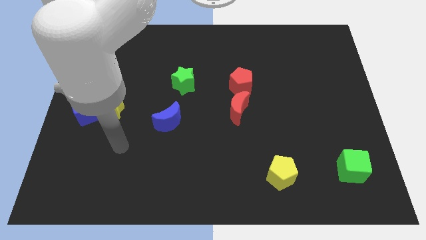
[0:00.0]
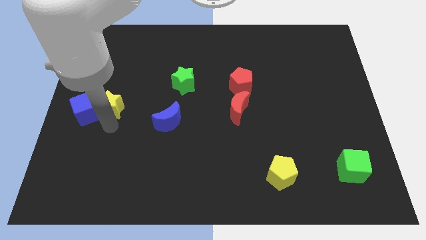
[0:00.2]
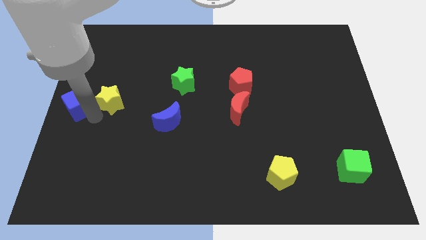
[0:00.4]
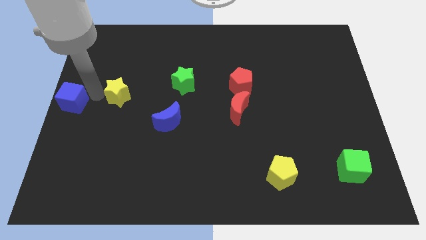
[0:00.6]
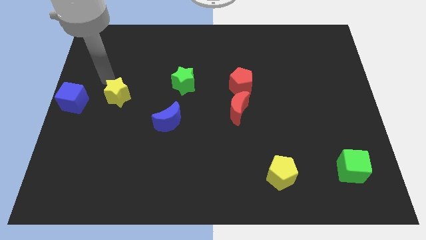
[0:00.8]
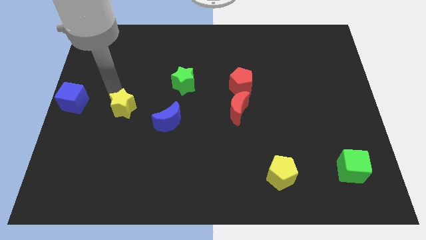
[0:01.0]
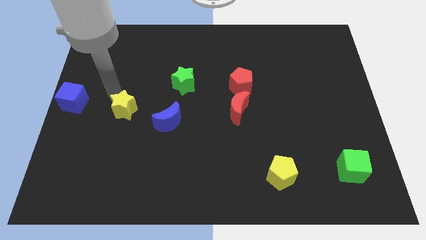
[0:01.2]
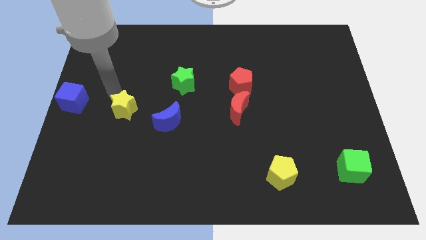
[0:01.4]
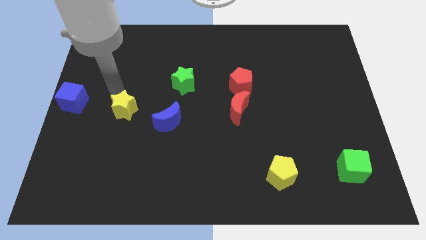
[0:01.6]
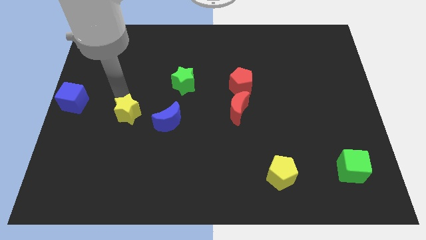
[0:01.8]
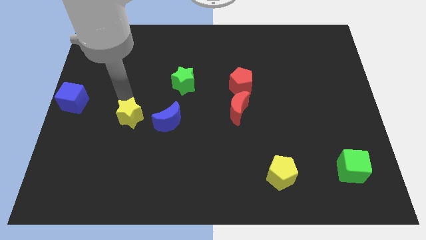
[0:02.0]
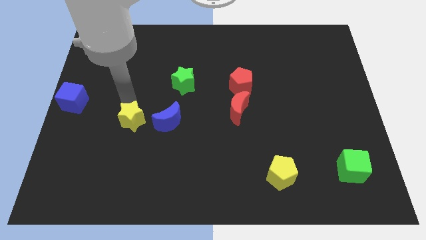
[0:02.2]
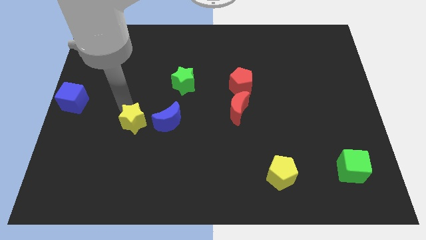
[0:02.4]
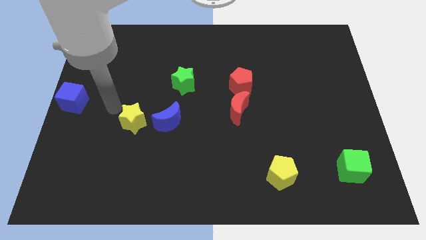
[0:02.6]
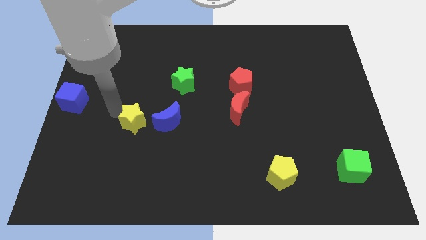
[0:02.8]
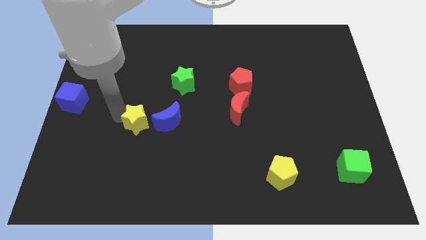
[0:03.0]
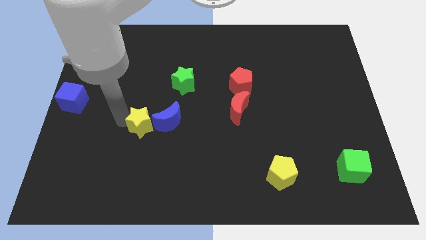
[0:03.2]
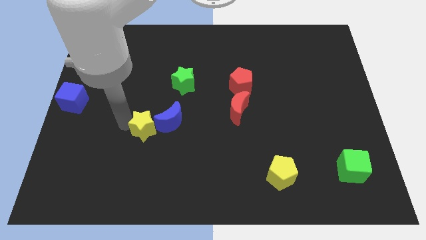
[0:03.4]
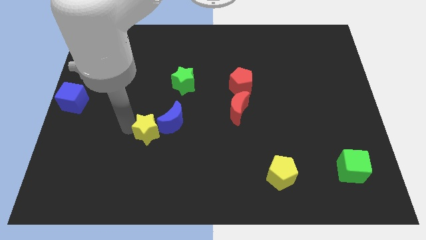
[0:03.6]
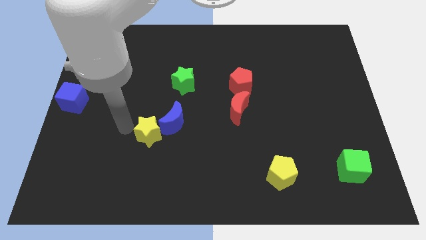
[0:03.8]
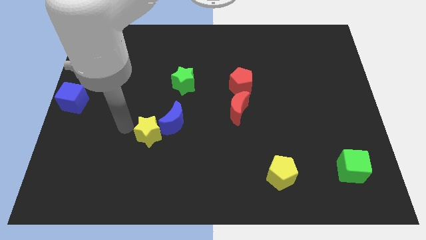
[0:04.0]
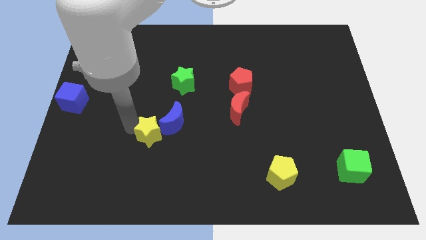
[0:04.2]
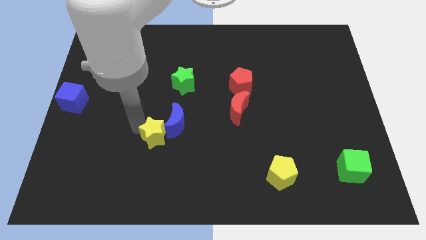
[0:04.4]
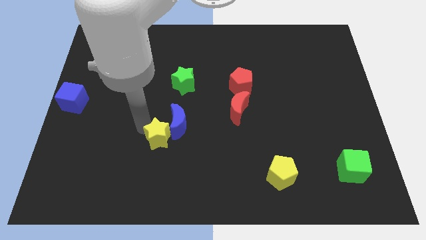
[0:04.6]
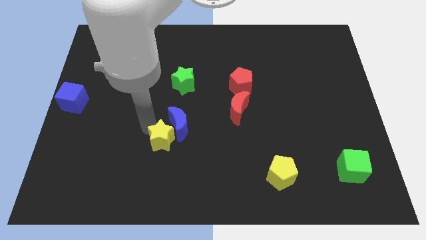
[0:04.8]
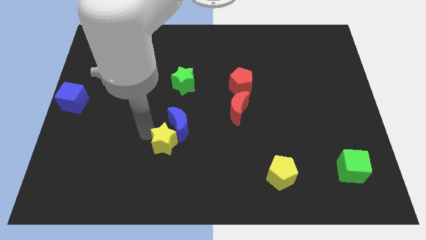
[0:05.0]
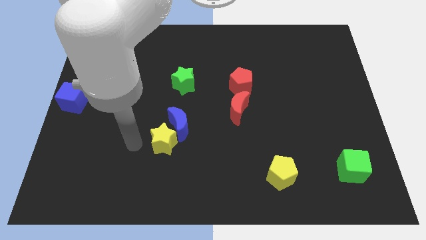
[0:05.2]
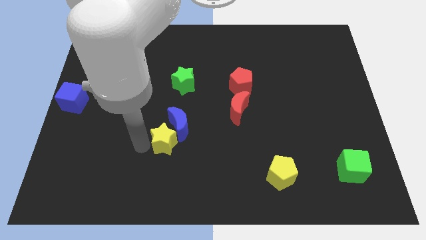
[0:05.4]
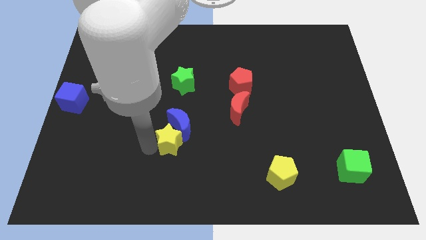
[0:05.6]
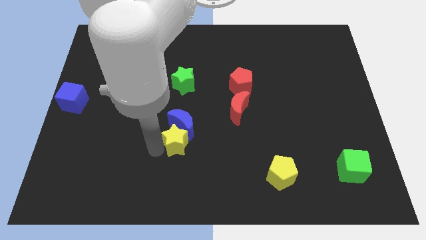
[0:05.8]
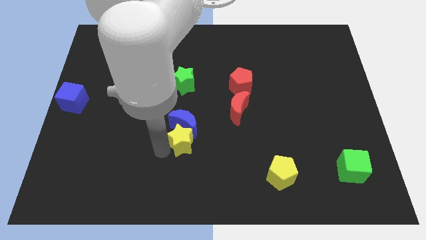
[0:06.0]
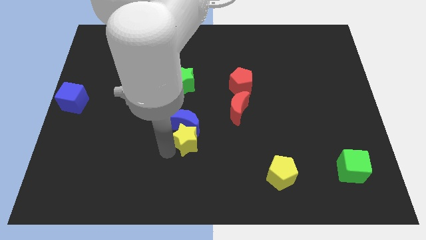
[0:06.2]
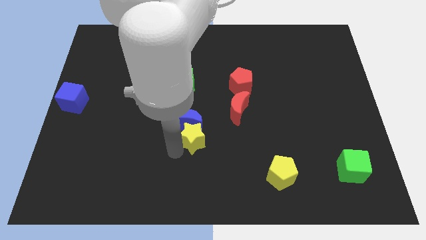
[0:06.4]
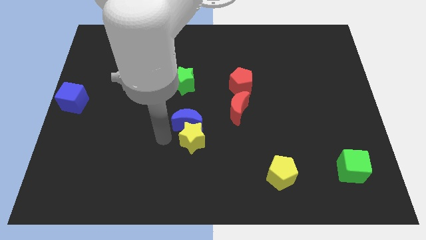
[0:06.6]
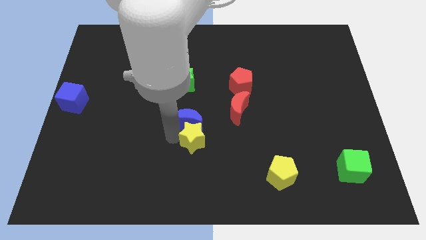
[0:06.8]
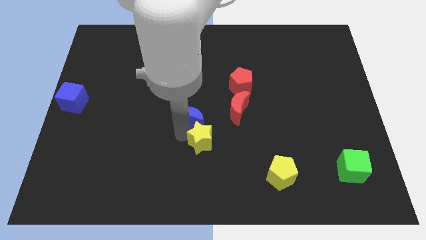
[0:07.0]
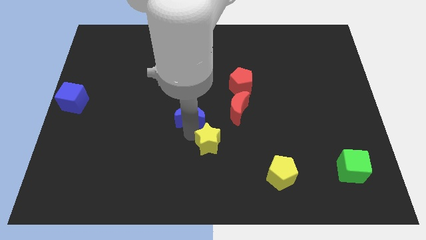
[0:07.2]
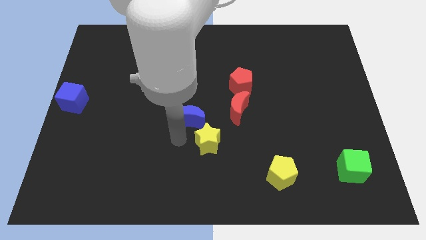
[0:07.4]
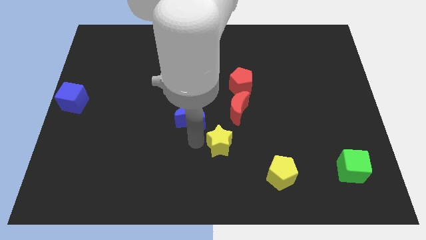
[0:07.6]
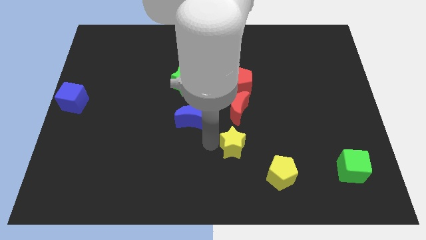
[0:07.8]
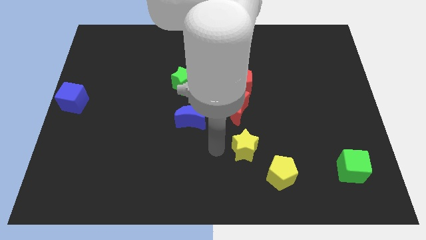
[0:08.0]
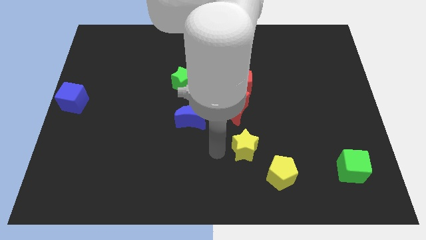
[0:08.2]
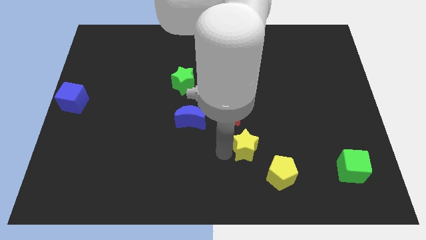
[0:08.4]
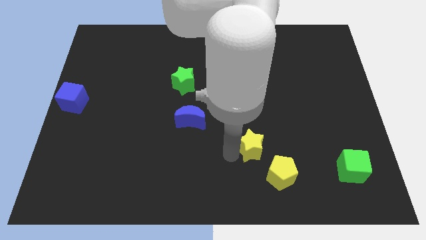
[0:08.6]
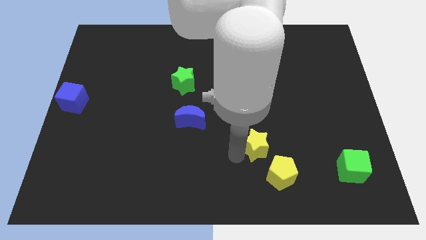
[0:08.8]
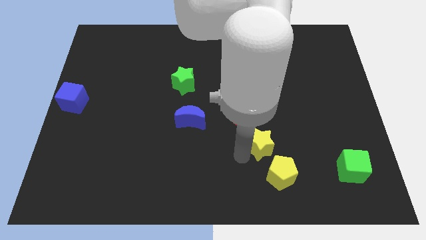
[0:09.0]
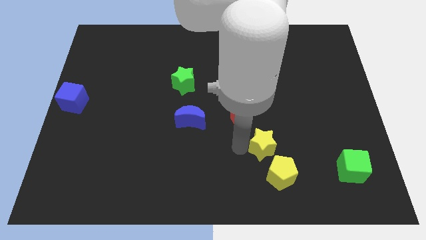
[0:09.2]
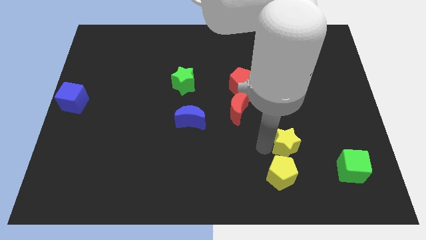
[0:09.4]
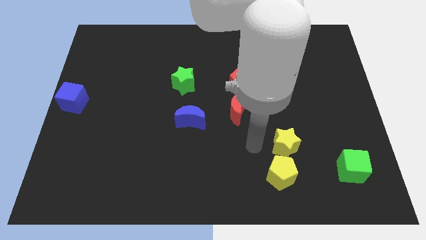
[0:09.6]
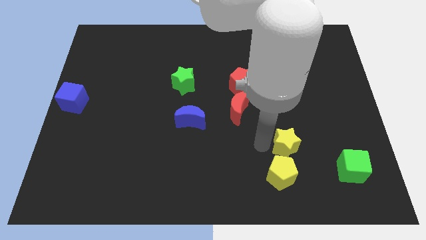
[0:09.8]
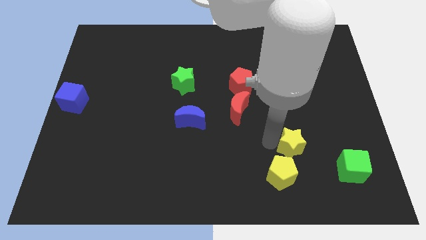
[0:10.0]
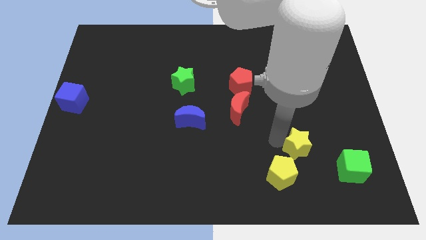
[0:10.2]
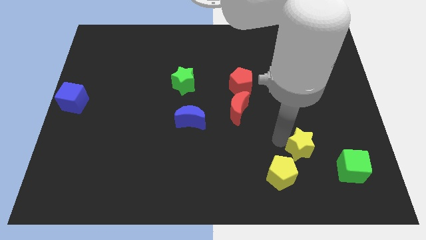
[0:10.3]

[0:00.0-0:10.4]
push the yellow star diagonally up and to the left of the green cube

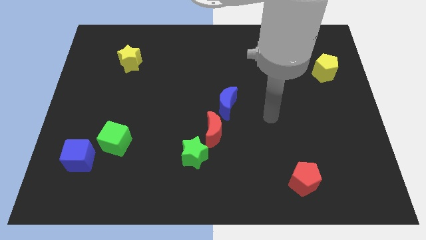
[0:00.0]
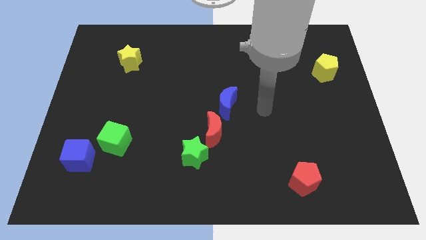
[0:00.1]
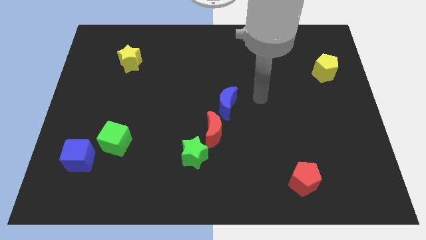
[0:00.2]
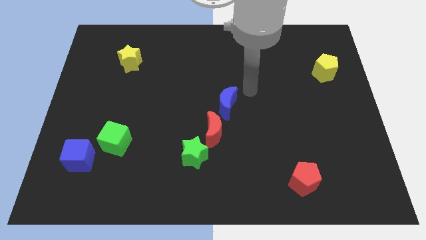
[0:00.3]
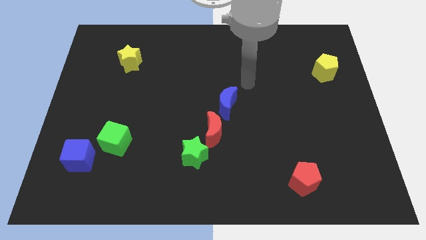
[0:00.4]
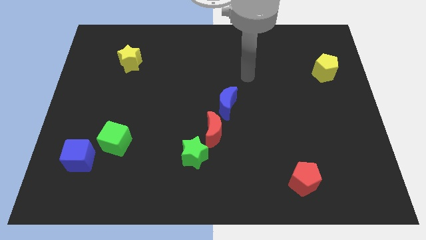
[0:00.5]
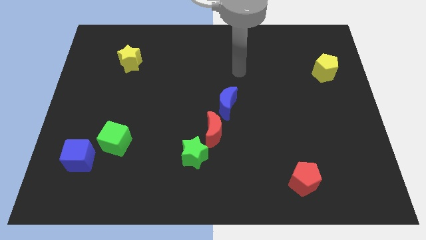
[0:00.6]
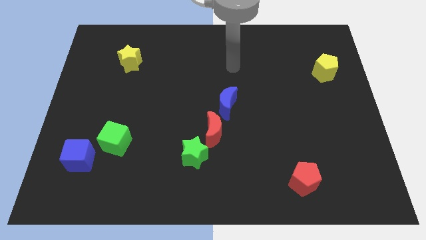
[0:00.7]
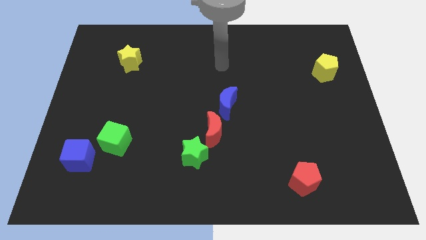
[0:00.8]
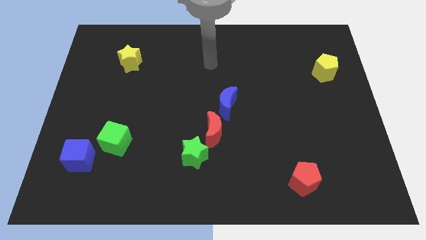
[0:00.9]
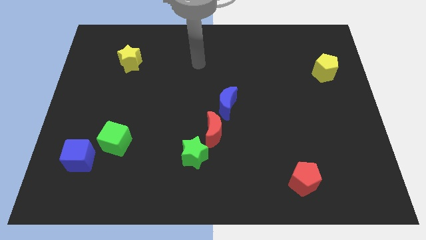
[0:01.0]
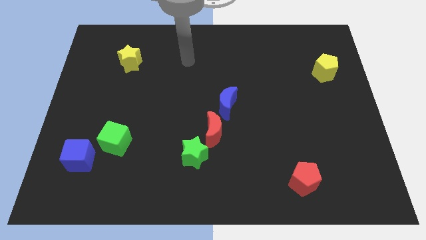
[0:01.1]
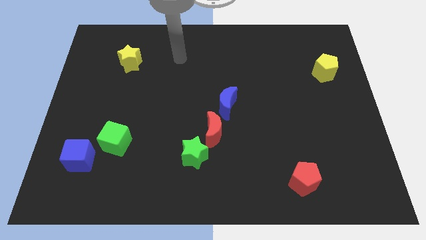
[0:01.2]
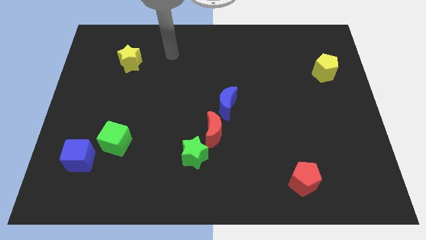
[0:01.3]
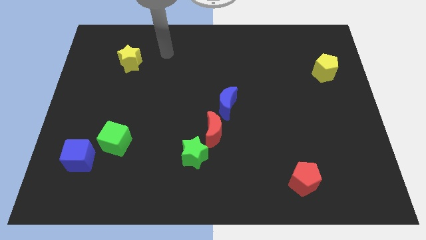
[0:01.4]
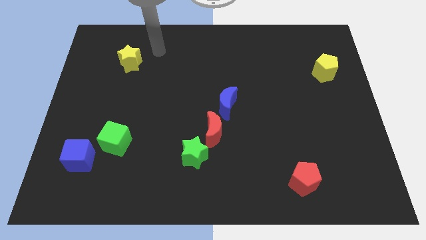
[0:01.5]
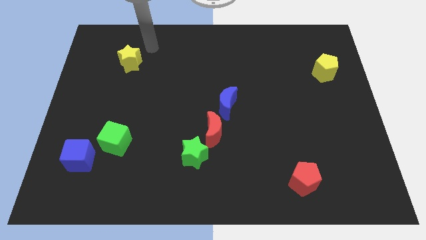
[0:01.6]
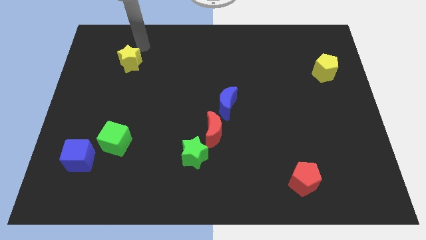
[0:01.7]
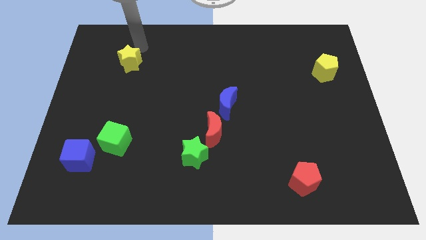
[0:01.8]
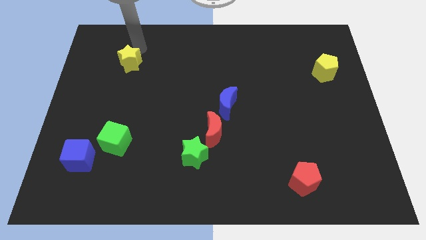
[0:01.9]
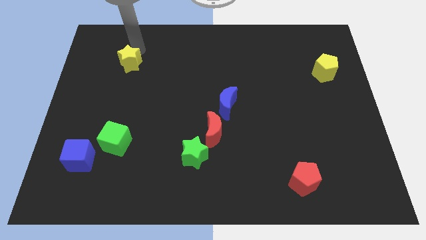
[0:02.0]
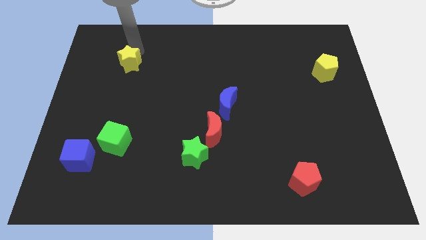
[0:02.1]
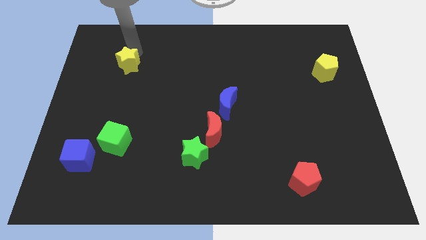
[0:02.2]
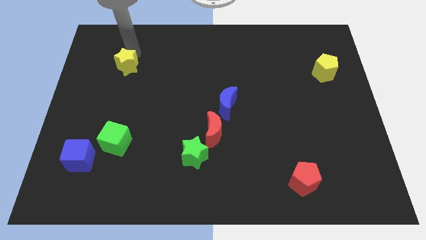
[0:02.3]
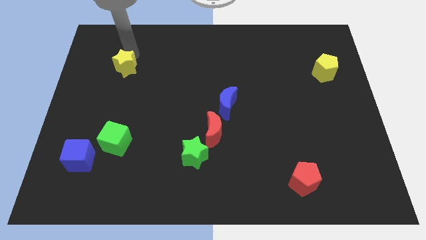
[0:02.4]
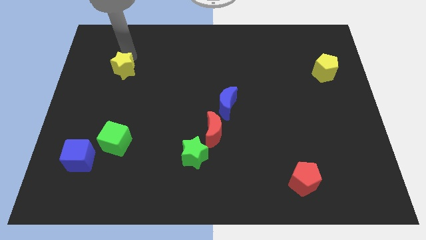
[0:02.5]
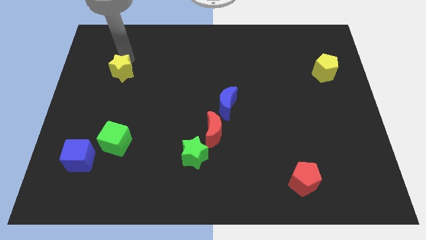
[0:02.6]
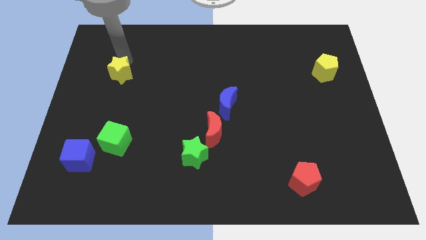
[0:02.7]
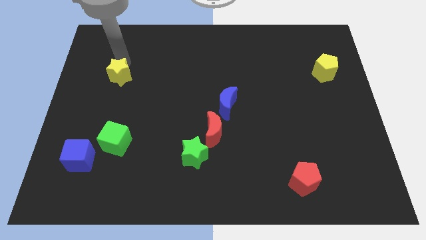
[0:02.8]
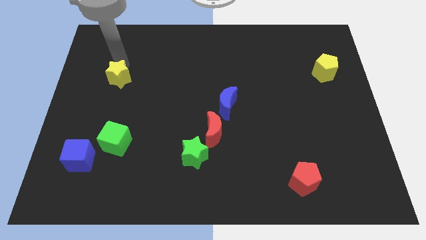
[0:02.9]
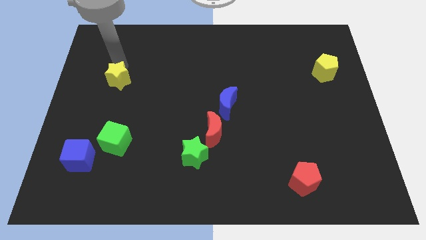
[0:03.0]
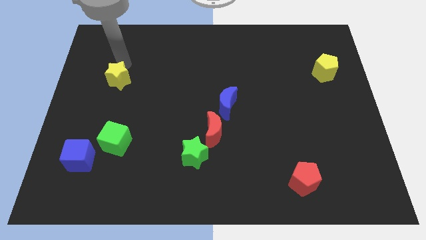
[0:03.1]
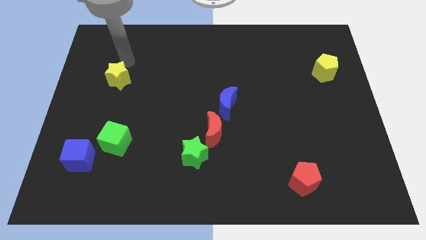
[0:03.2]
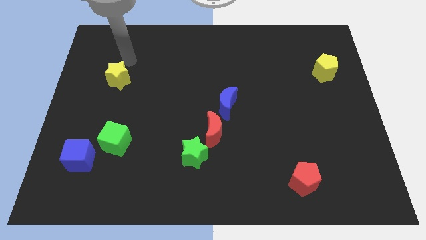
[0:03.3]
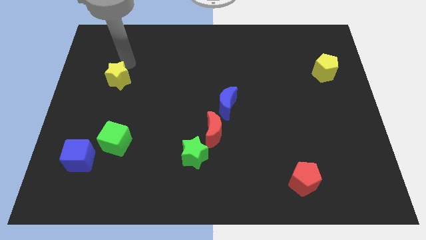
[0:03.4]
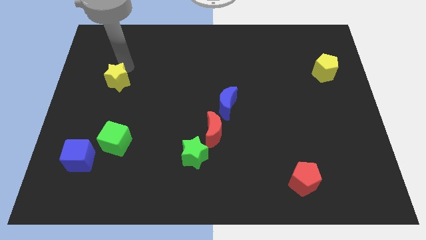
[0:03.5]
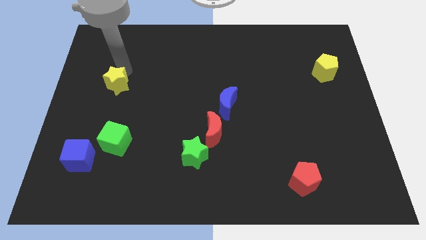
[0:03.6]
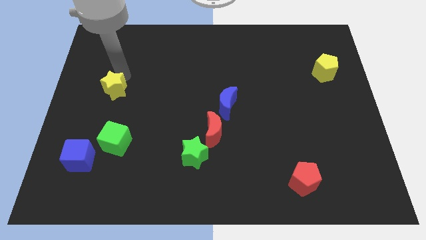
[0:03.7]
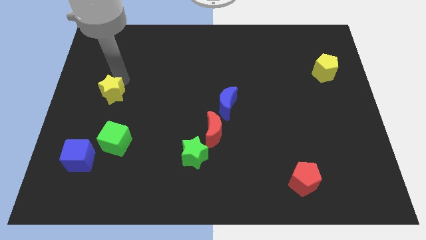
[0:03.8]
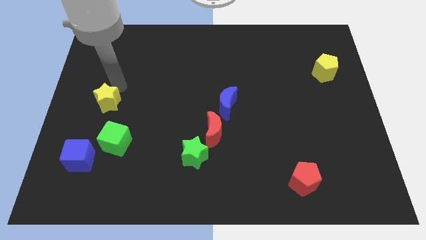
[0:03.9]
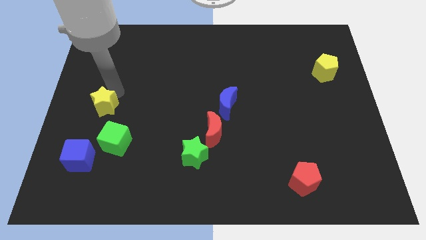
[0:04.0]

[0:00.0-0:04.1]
push the yellow star to the top of the blue cube
